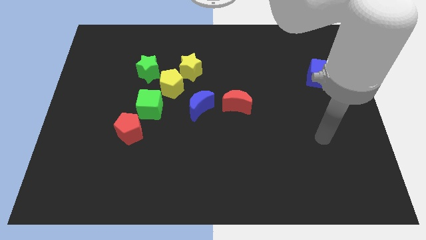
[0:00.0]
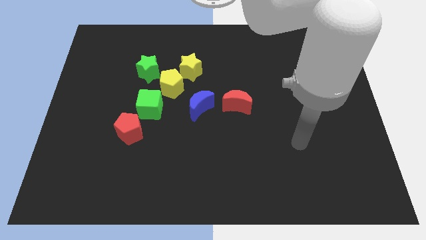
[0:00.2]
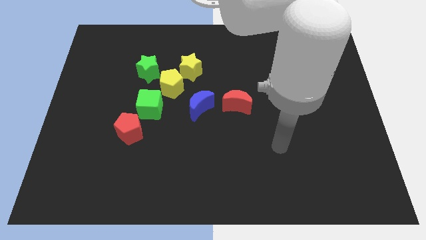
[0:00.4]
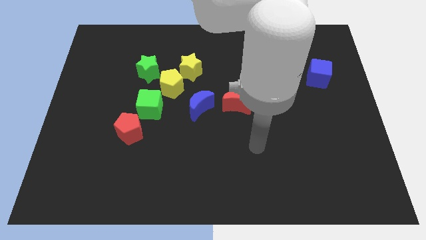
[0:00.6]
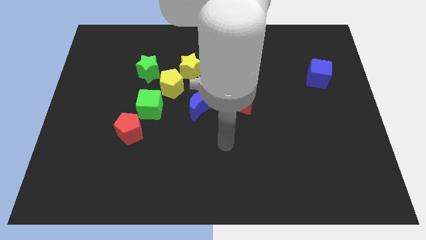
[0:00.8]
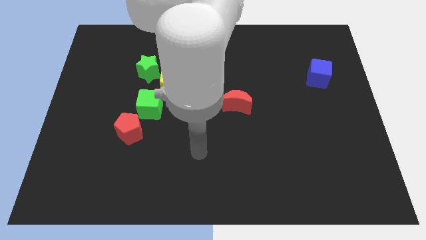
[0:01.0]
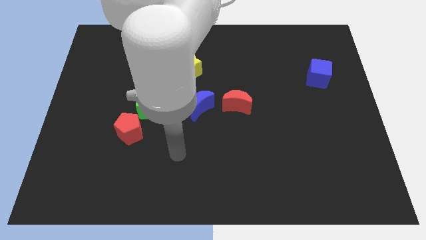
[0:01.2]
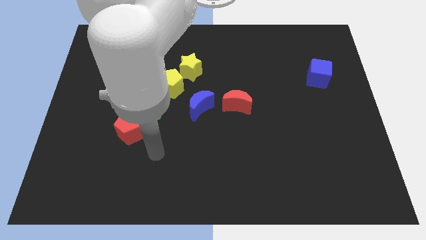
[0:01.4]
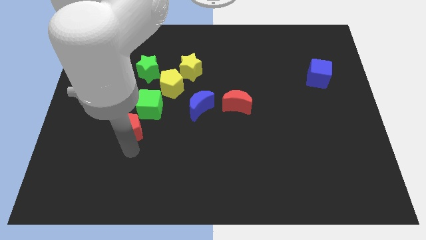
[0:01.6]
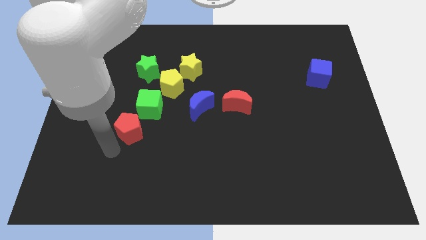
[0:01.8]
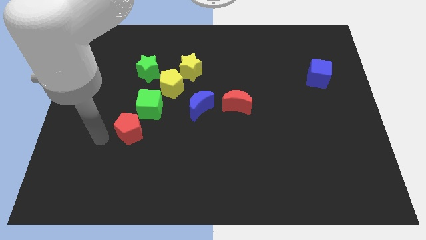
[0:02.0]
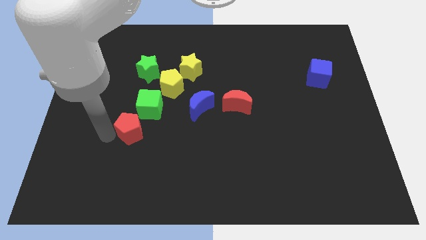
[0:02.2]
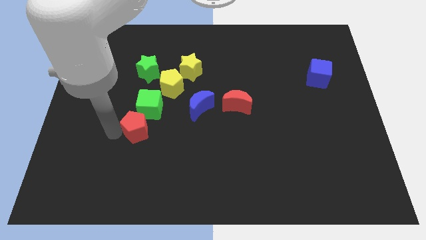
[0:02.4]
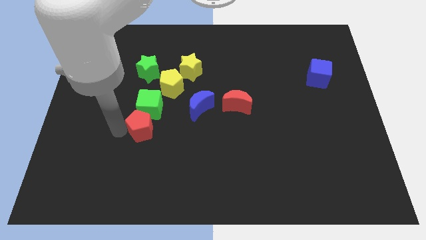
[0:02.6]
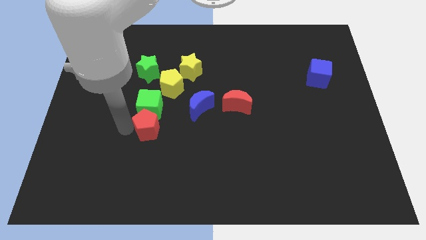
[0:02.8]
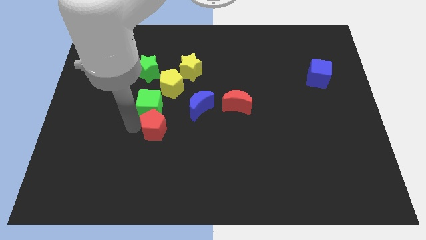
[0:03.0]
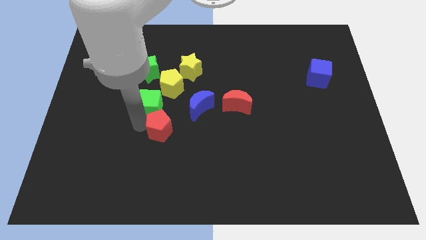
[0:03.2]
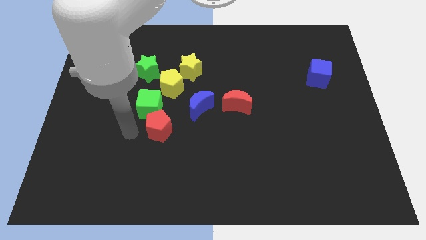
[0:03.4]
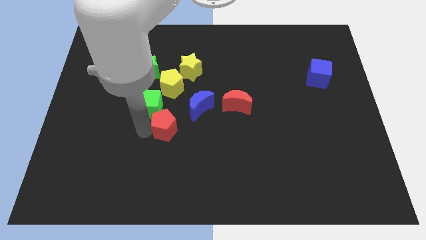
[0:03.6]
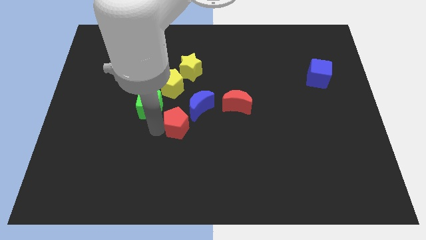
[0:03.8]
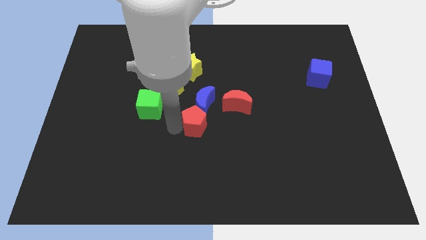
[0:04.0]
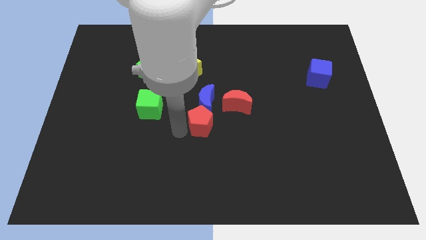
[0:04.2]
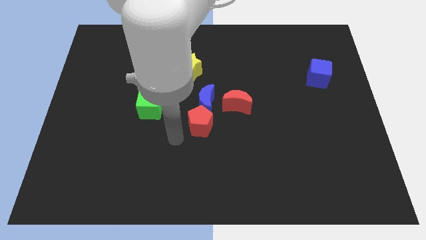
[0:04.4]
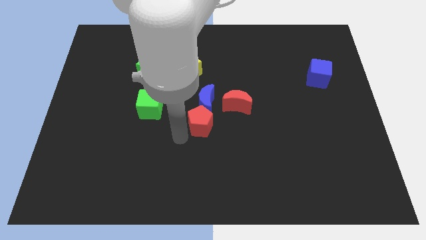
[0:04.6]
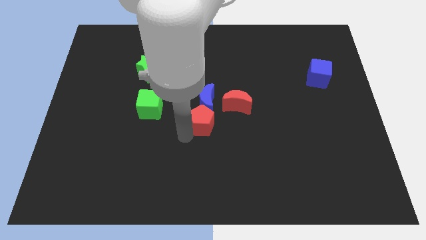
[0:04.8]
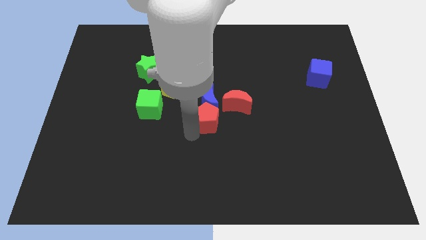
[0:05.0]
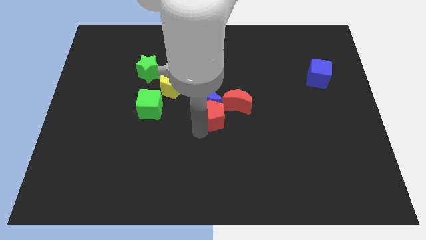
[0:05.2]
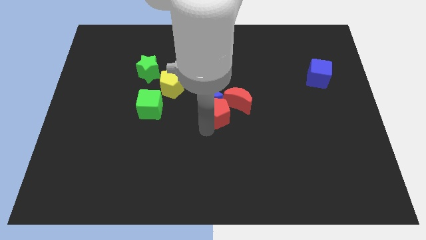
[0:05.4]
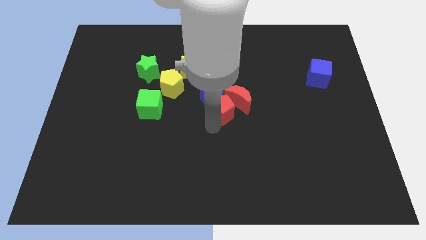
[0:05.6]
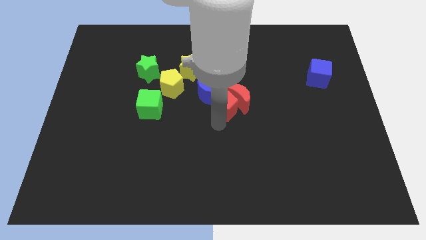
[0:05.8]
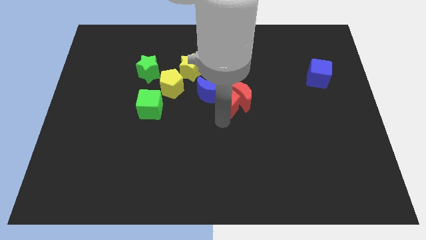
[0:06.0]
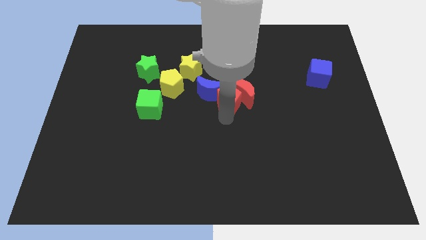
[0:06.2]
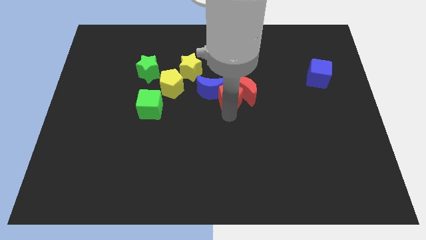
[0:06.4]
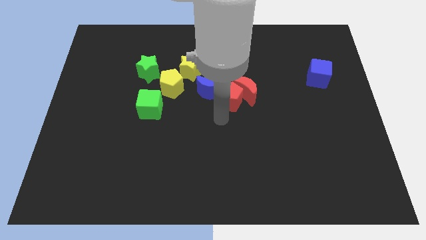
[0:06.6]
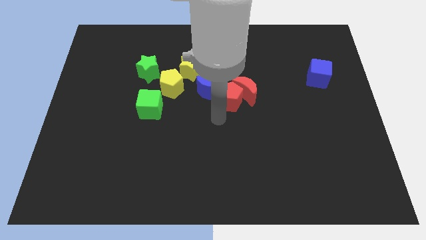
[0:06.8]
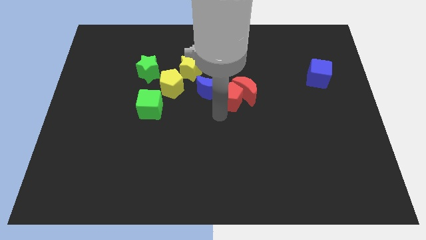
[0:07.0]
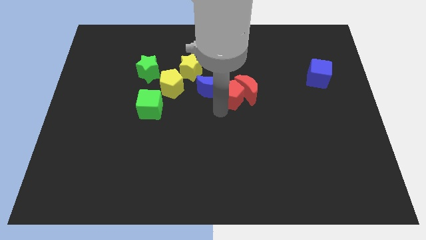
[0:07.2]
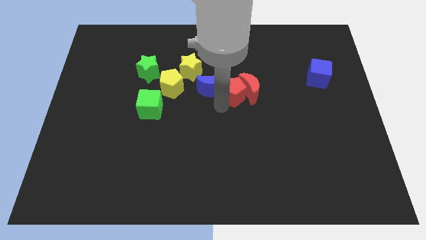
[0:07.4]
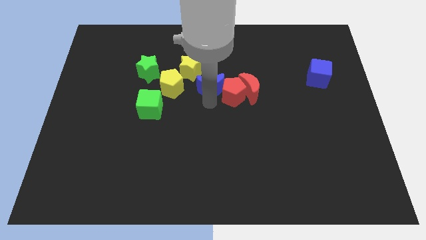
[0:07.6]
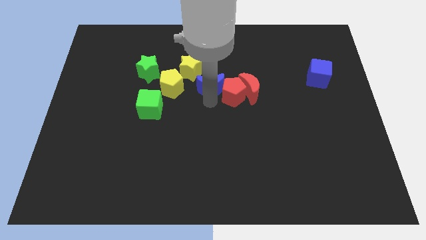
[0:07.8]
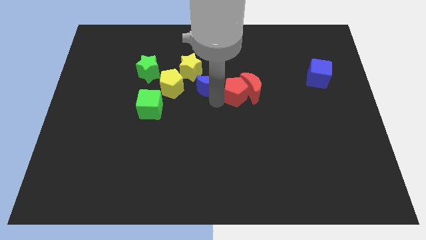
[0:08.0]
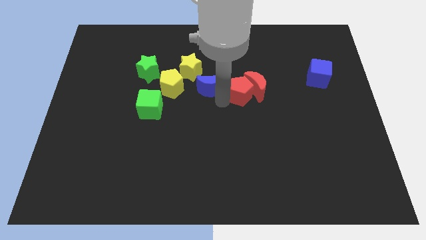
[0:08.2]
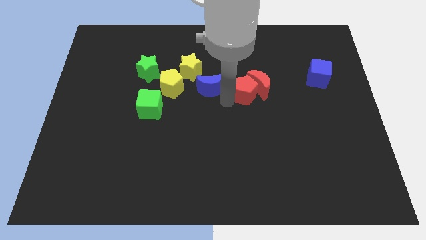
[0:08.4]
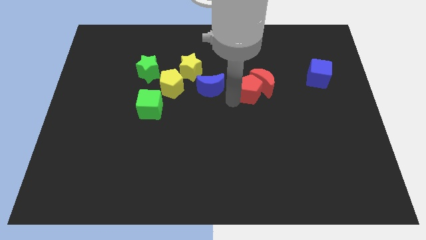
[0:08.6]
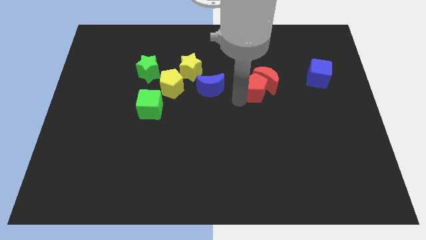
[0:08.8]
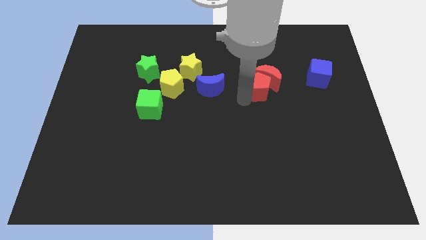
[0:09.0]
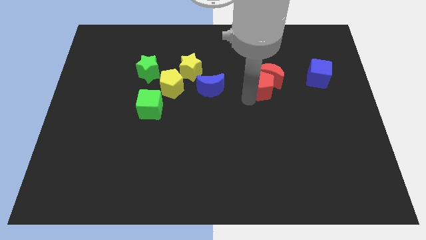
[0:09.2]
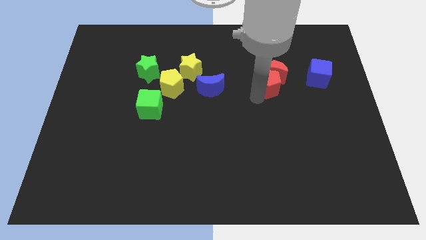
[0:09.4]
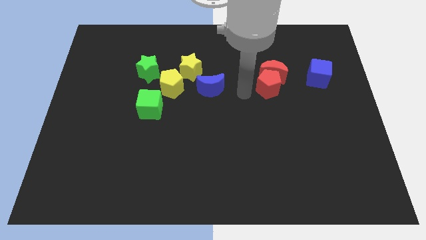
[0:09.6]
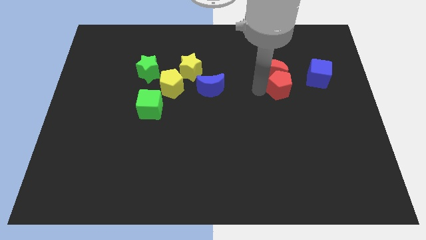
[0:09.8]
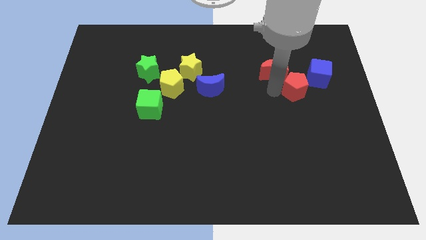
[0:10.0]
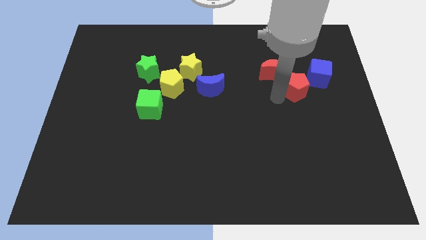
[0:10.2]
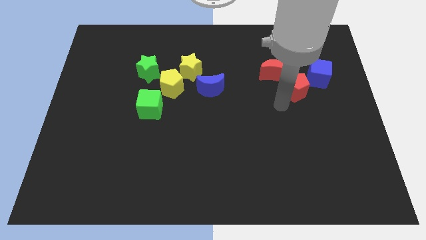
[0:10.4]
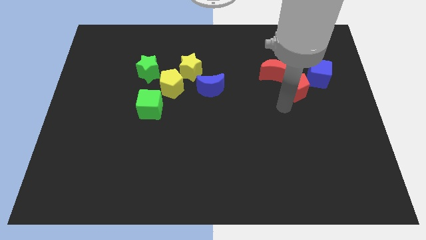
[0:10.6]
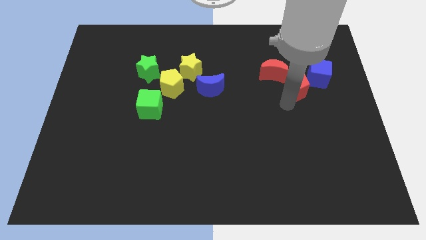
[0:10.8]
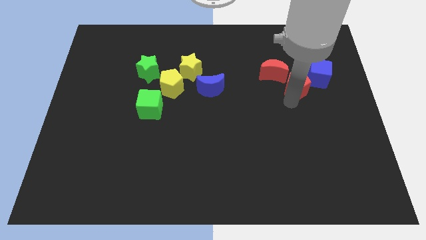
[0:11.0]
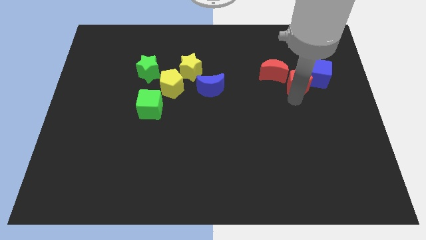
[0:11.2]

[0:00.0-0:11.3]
slide the red pentagon close to the blue cube

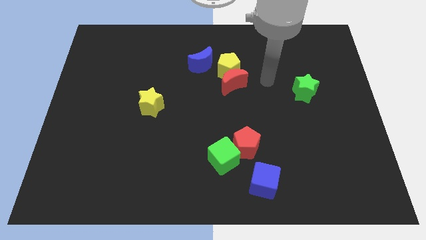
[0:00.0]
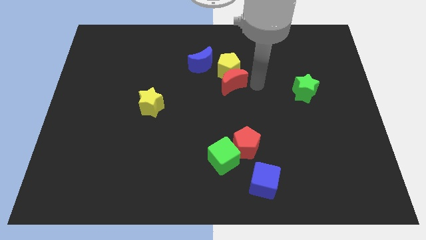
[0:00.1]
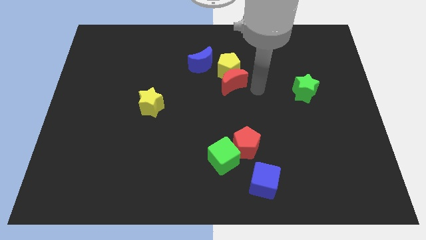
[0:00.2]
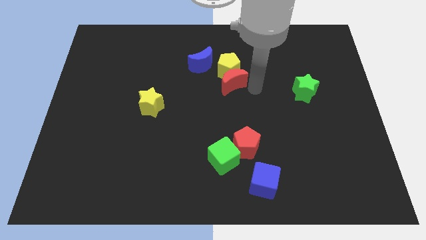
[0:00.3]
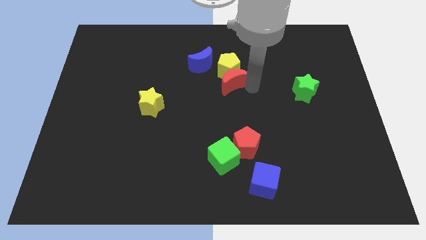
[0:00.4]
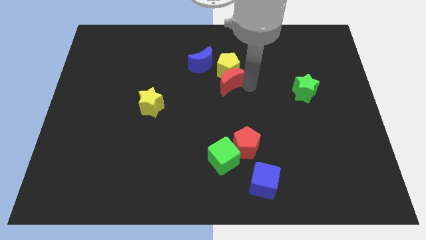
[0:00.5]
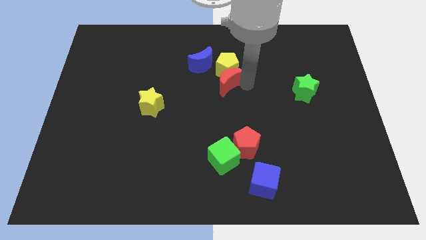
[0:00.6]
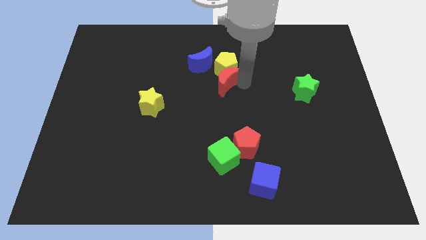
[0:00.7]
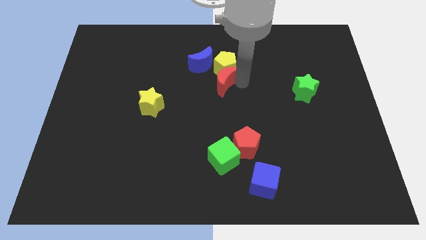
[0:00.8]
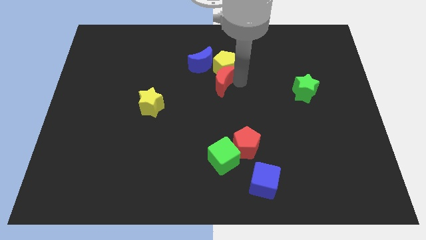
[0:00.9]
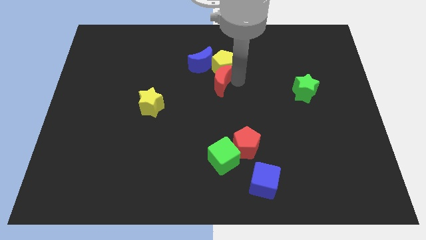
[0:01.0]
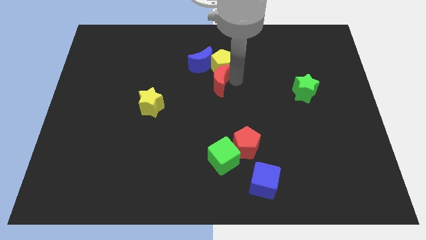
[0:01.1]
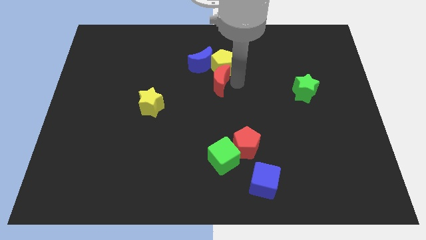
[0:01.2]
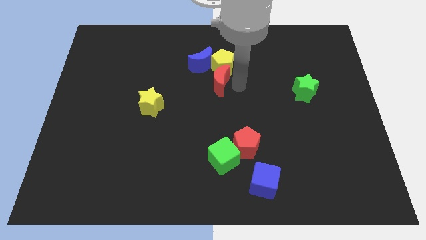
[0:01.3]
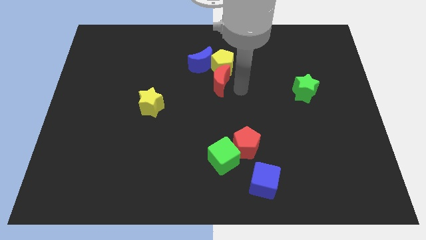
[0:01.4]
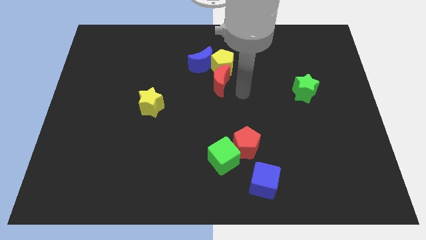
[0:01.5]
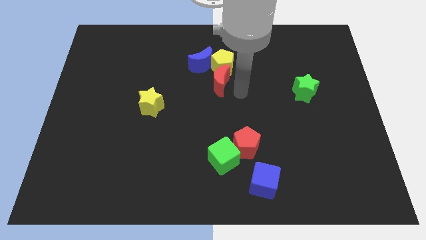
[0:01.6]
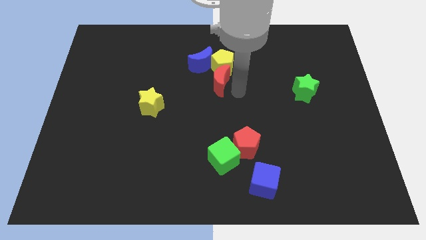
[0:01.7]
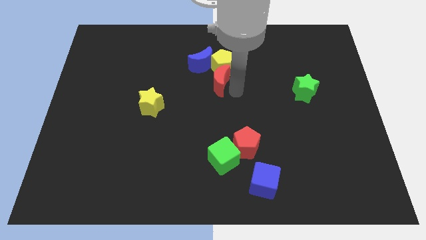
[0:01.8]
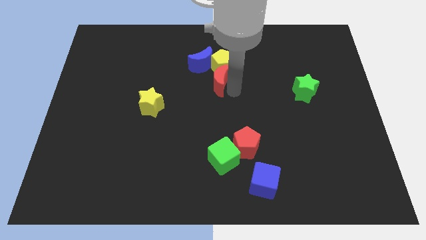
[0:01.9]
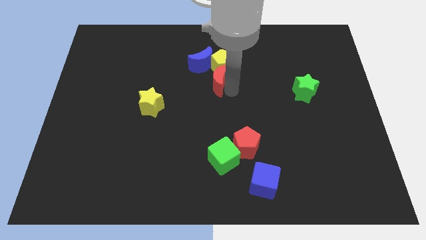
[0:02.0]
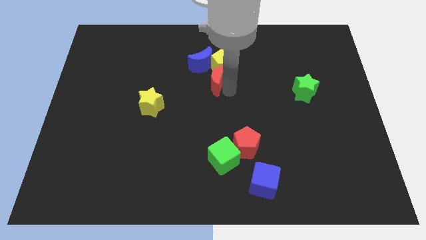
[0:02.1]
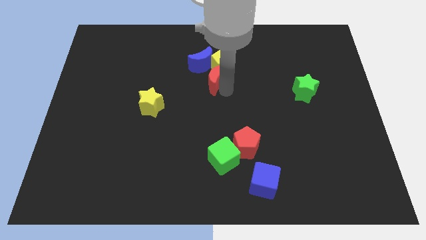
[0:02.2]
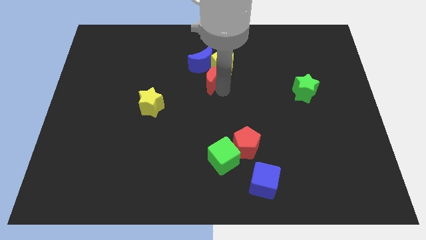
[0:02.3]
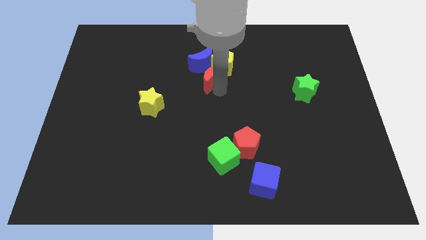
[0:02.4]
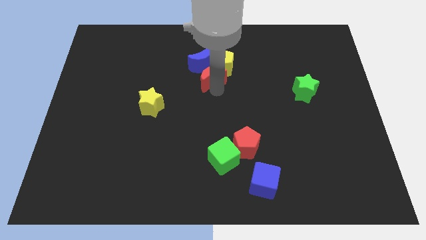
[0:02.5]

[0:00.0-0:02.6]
push the red moon to the blue moon
